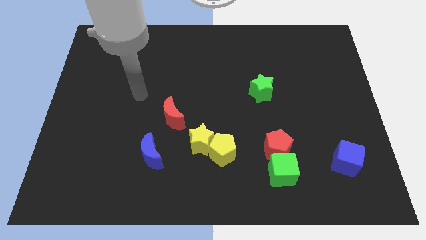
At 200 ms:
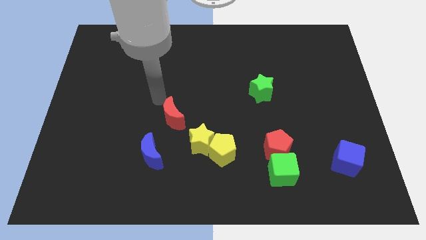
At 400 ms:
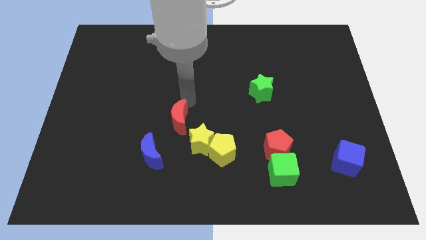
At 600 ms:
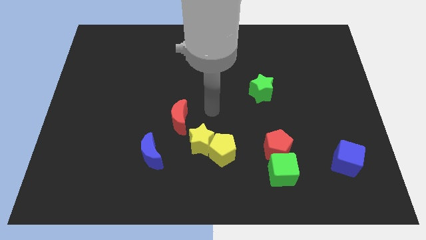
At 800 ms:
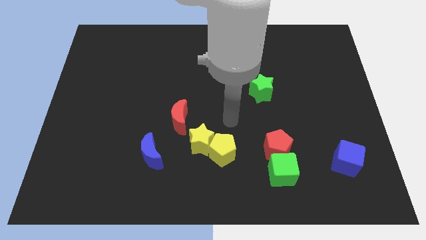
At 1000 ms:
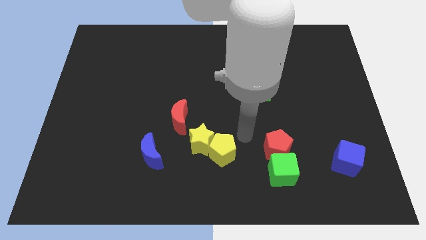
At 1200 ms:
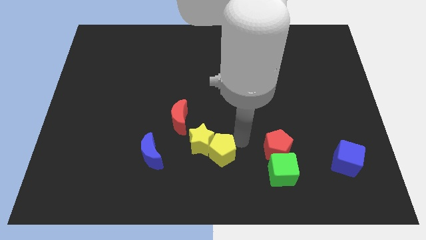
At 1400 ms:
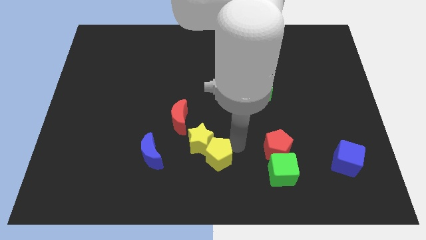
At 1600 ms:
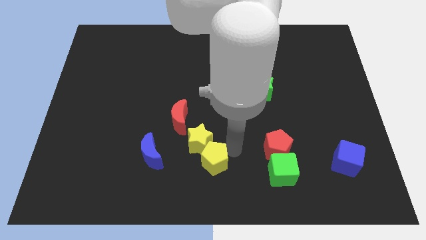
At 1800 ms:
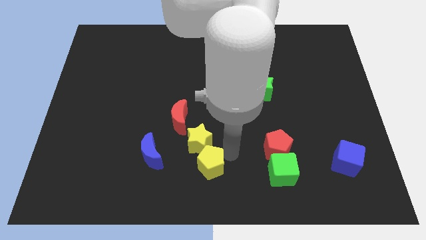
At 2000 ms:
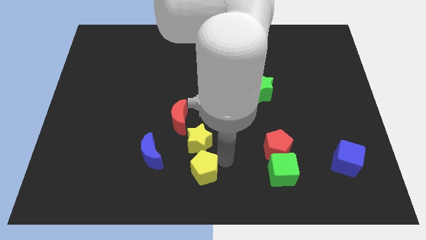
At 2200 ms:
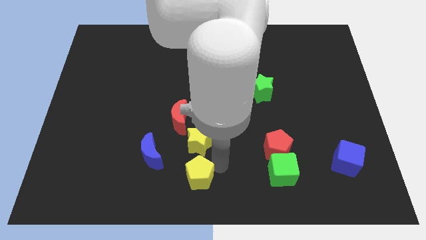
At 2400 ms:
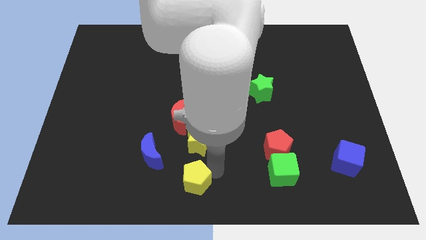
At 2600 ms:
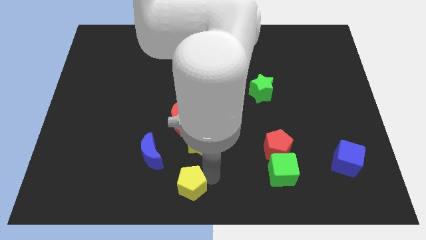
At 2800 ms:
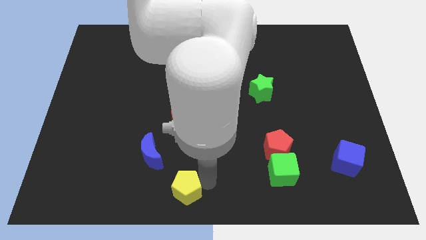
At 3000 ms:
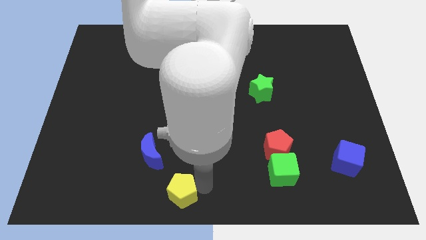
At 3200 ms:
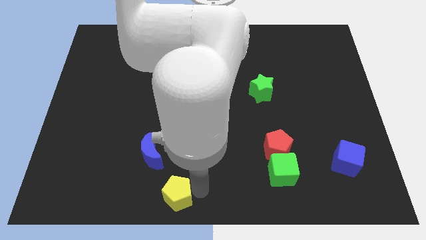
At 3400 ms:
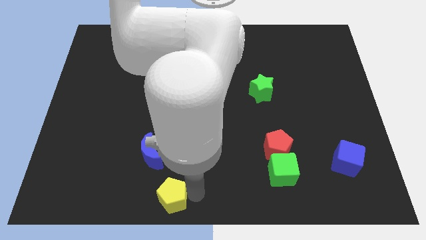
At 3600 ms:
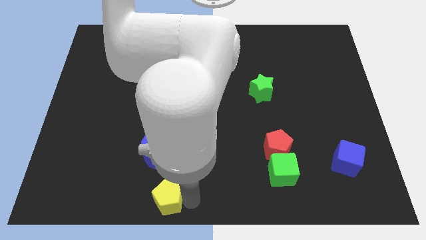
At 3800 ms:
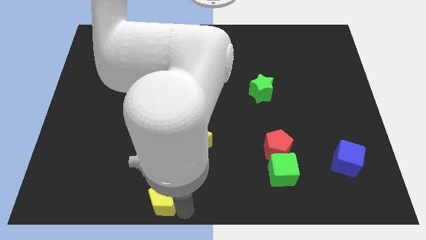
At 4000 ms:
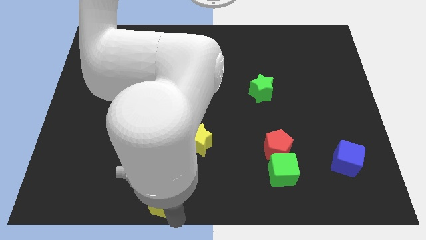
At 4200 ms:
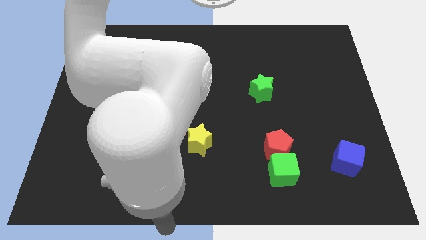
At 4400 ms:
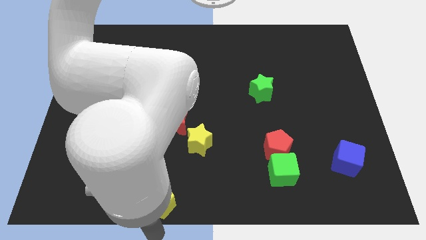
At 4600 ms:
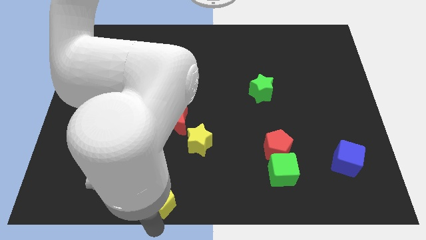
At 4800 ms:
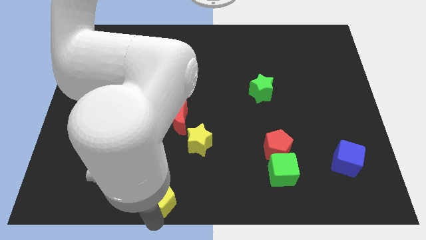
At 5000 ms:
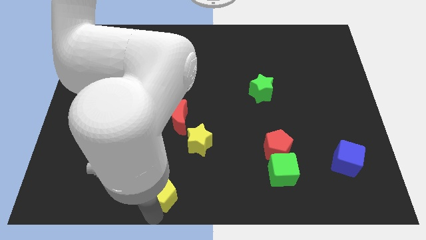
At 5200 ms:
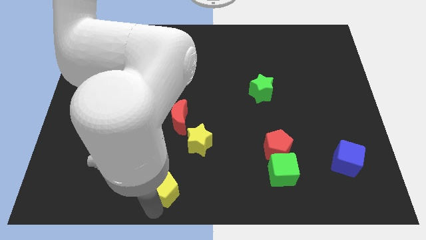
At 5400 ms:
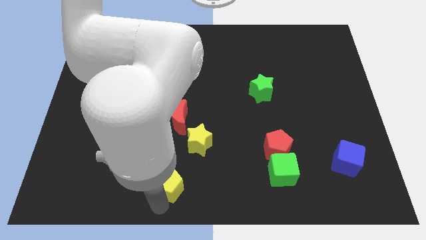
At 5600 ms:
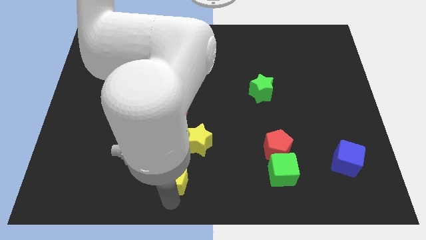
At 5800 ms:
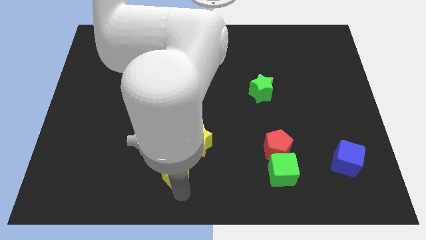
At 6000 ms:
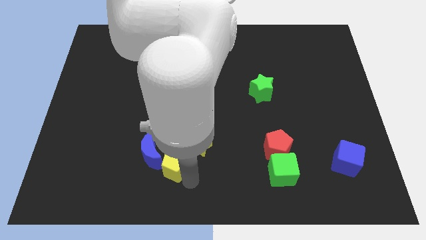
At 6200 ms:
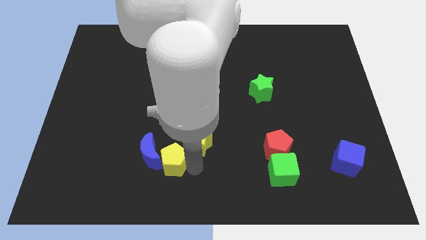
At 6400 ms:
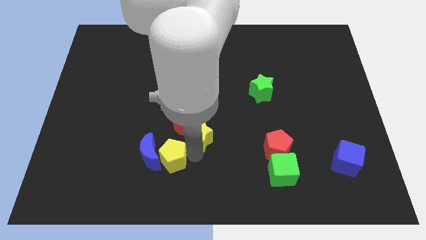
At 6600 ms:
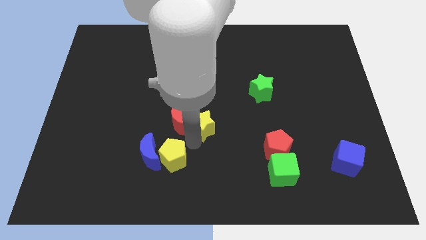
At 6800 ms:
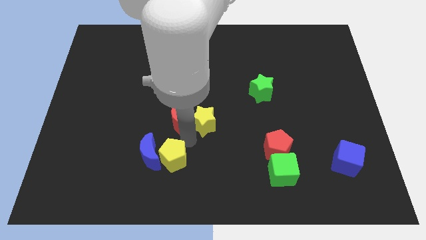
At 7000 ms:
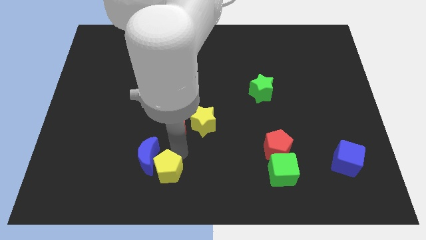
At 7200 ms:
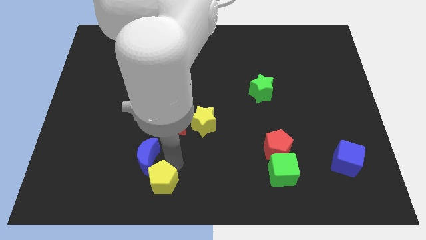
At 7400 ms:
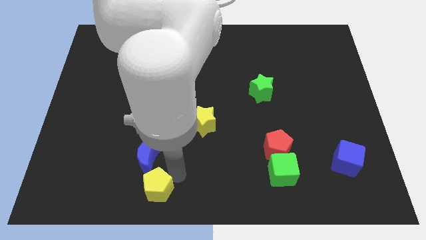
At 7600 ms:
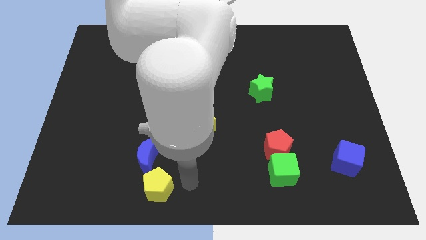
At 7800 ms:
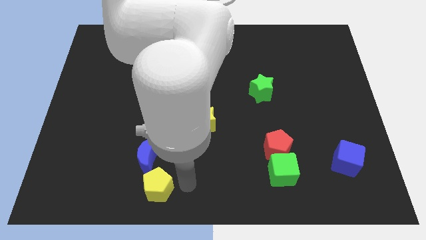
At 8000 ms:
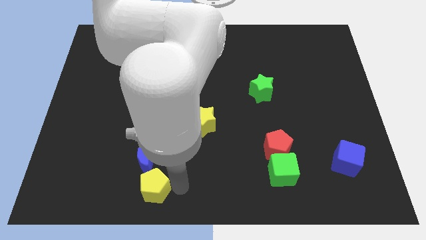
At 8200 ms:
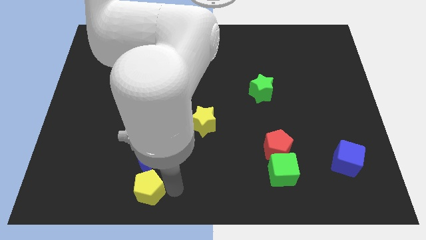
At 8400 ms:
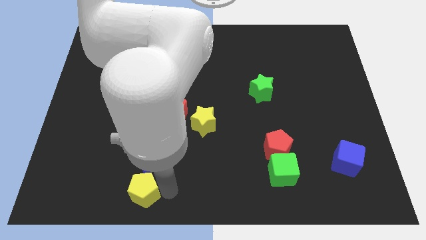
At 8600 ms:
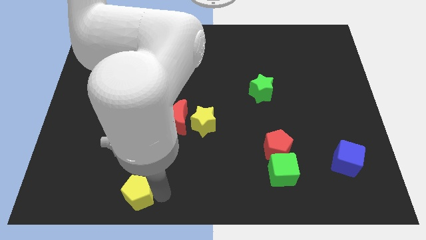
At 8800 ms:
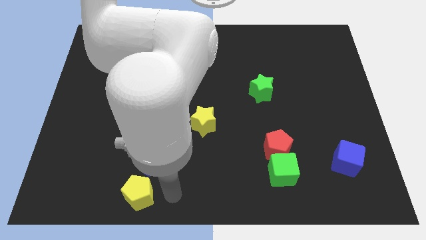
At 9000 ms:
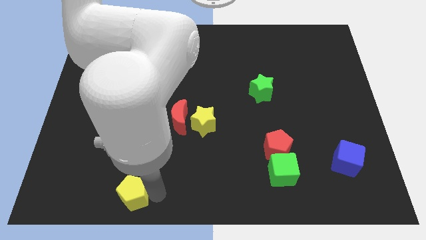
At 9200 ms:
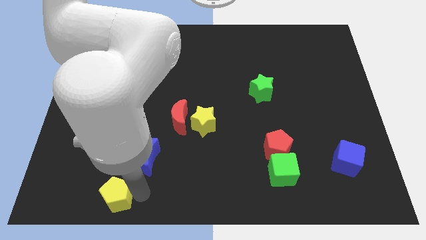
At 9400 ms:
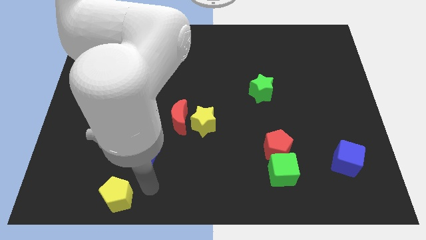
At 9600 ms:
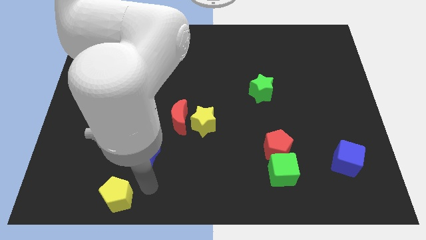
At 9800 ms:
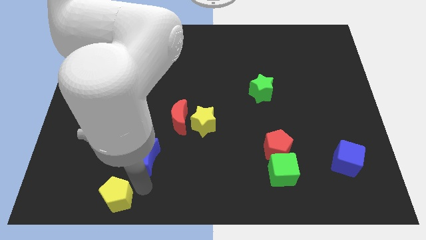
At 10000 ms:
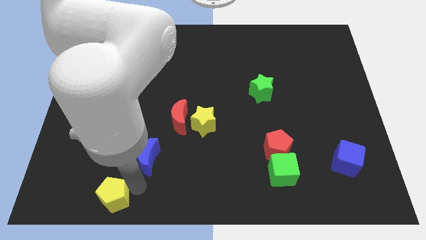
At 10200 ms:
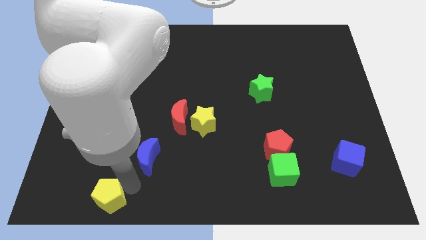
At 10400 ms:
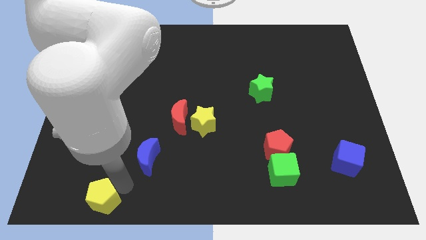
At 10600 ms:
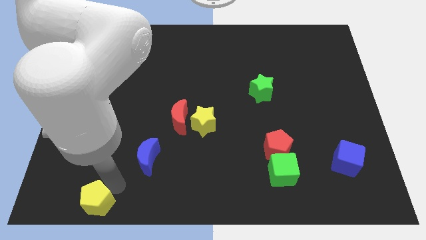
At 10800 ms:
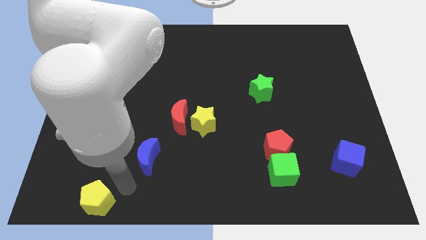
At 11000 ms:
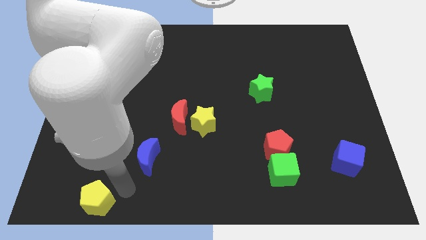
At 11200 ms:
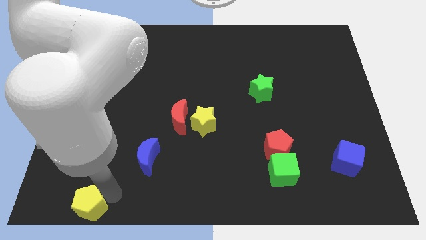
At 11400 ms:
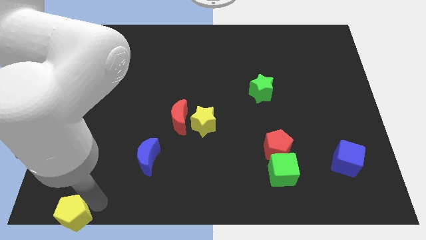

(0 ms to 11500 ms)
push the yellow pentagon to the lower left corner

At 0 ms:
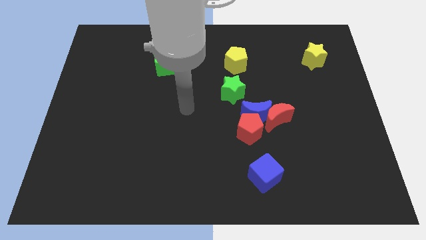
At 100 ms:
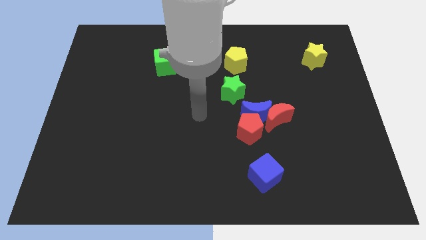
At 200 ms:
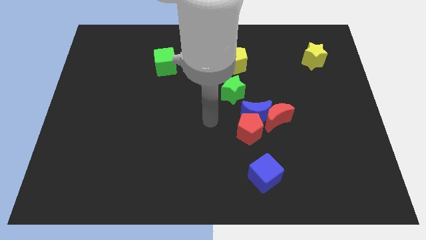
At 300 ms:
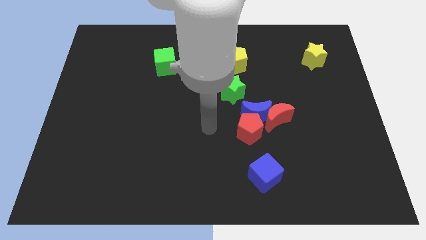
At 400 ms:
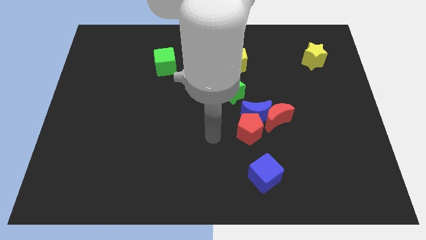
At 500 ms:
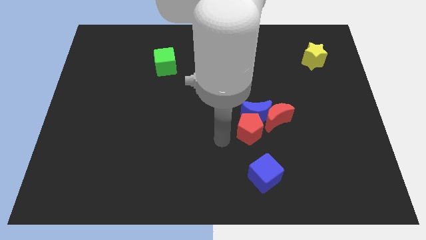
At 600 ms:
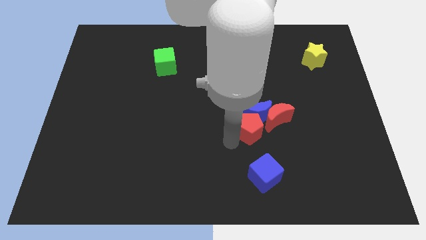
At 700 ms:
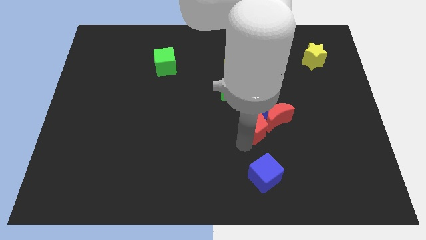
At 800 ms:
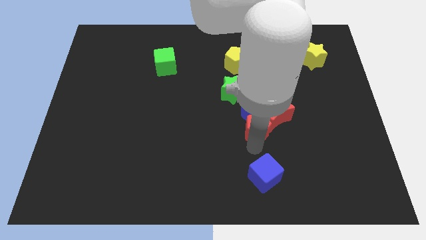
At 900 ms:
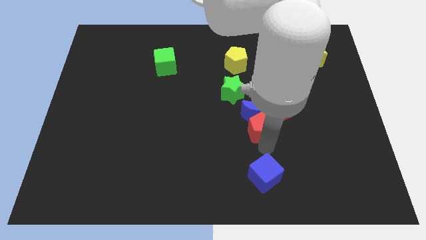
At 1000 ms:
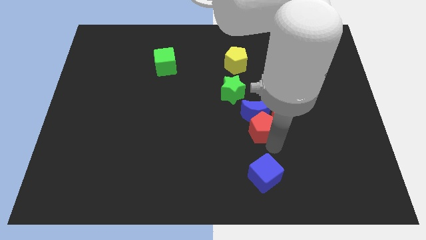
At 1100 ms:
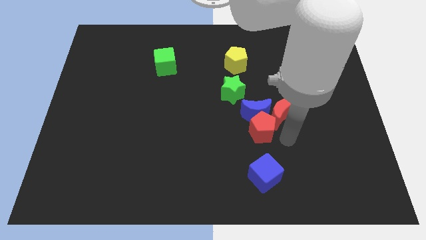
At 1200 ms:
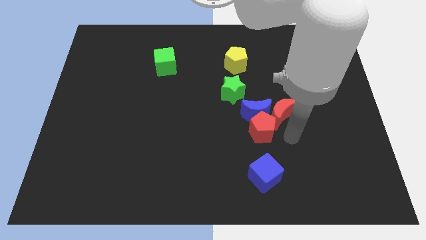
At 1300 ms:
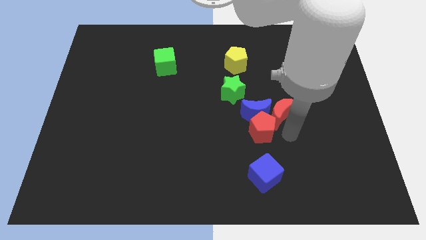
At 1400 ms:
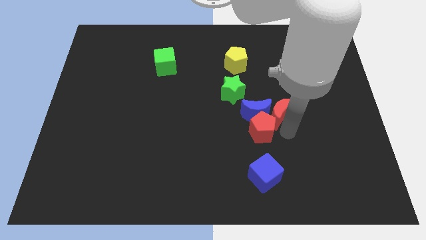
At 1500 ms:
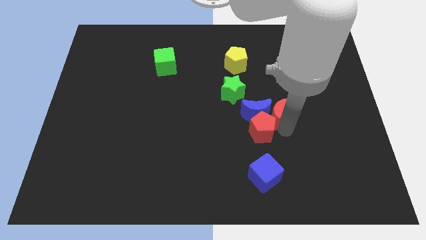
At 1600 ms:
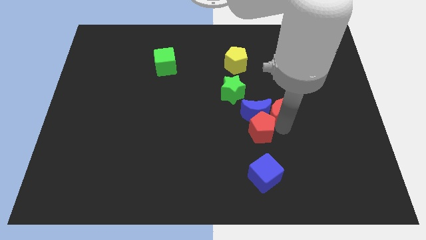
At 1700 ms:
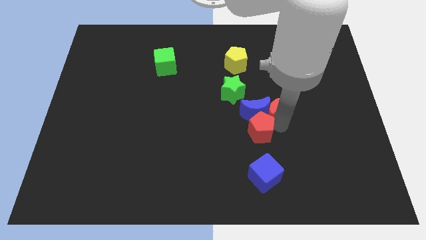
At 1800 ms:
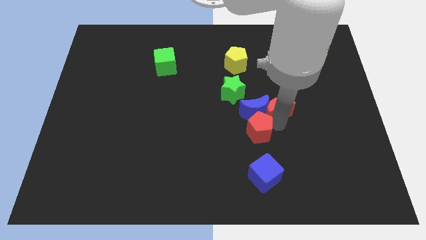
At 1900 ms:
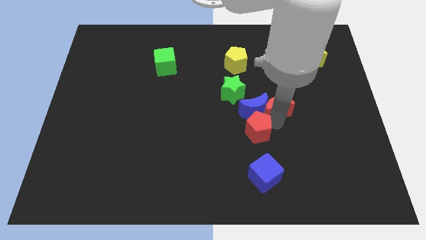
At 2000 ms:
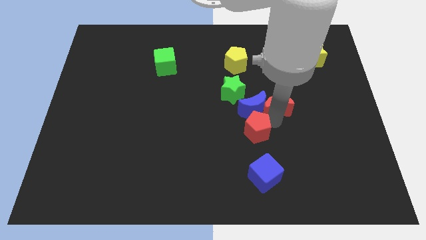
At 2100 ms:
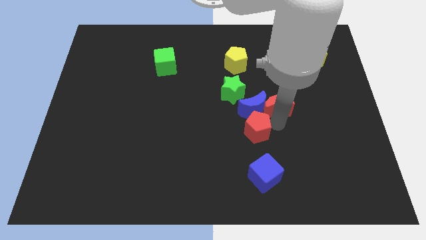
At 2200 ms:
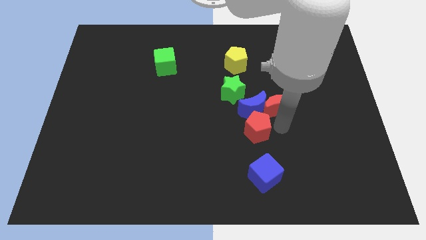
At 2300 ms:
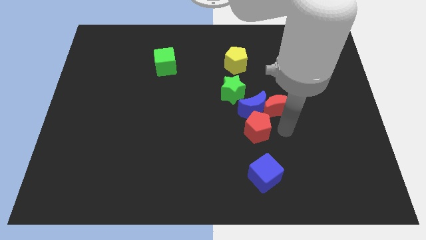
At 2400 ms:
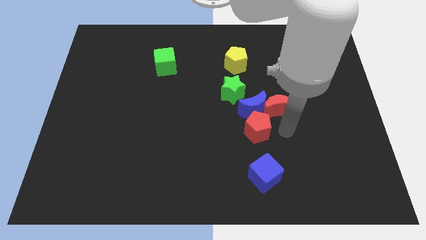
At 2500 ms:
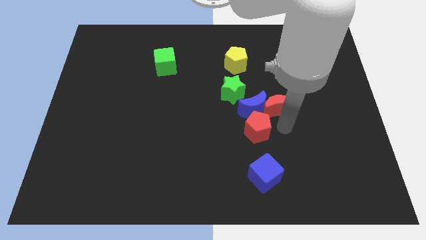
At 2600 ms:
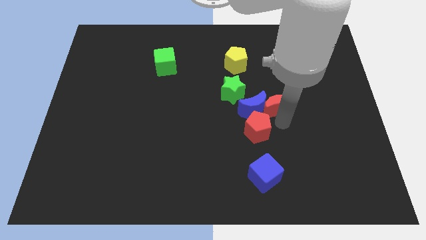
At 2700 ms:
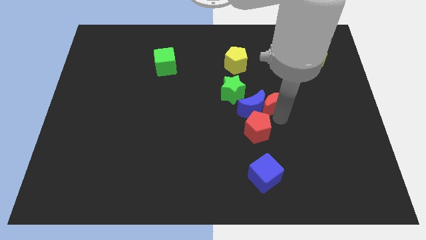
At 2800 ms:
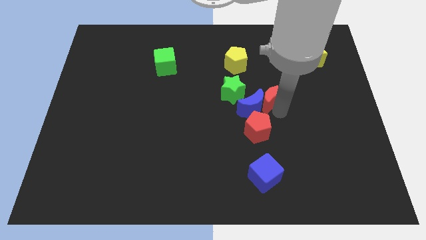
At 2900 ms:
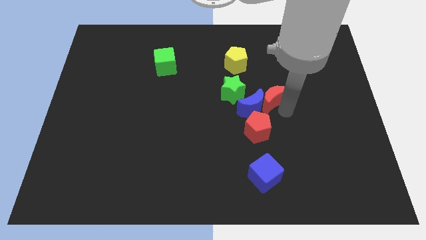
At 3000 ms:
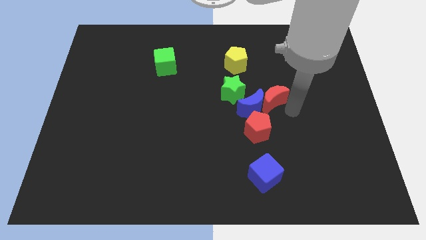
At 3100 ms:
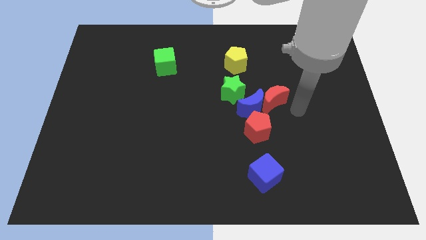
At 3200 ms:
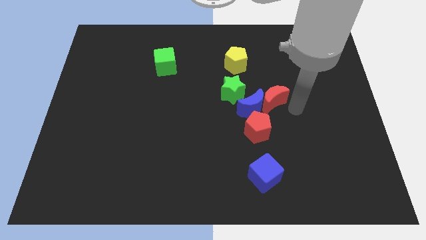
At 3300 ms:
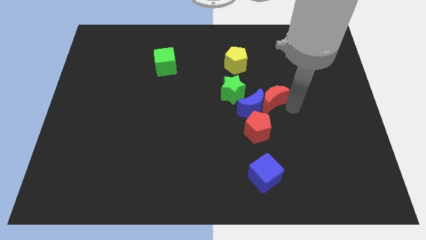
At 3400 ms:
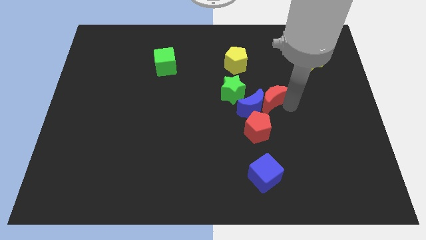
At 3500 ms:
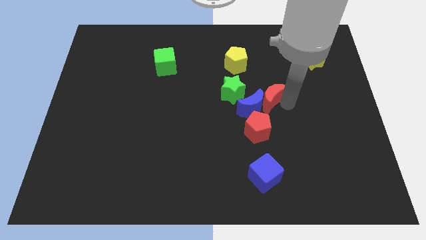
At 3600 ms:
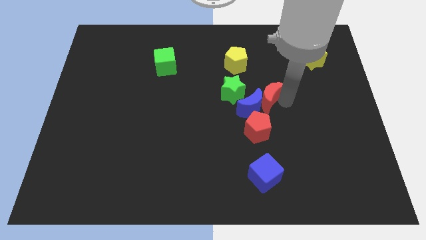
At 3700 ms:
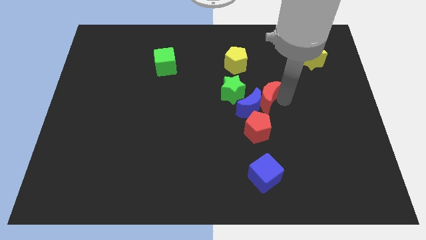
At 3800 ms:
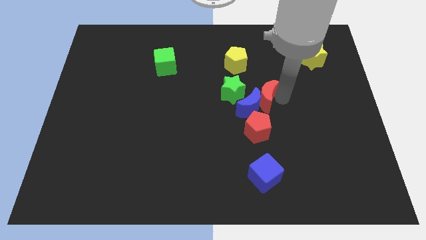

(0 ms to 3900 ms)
push the red moon to the center
